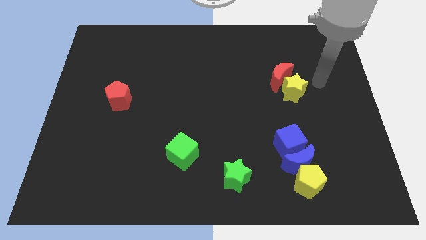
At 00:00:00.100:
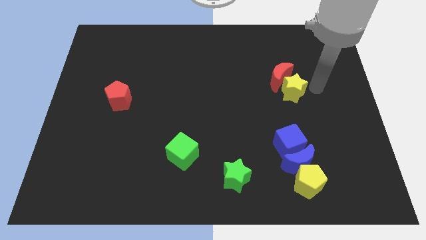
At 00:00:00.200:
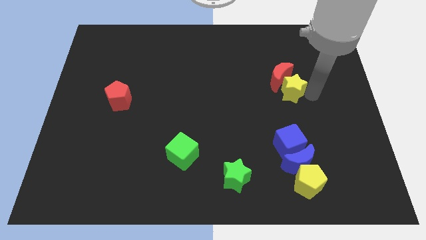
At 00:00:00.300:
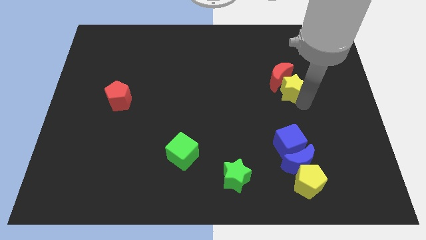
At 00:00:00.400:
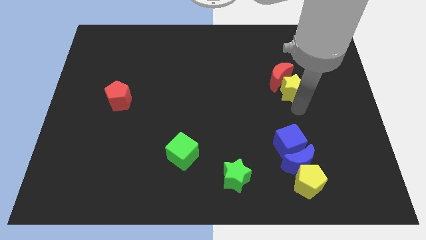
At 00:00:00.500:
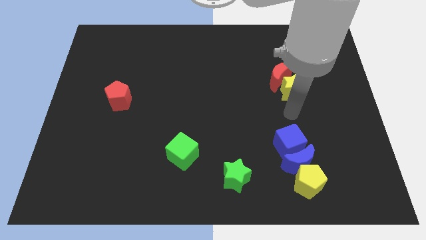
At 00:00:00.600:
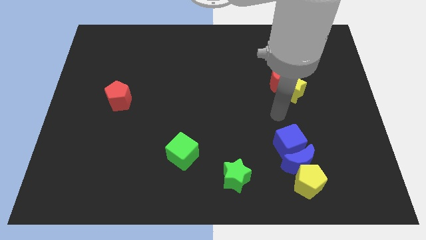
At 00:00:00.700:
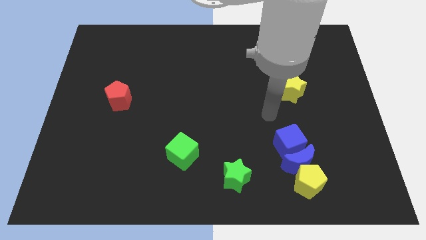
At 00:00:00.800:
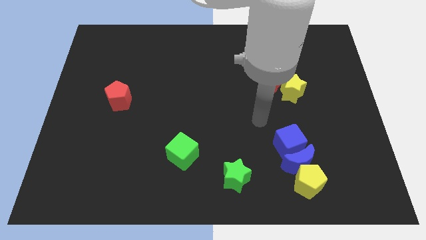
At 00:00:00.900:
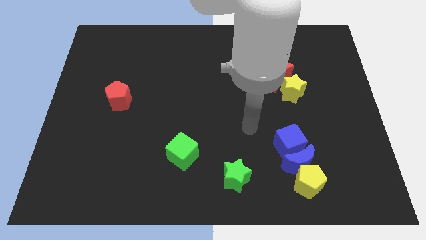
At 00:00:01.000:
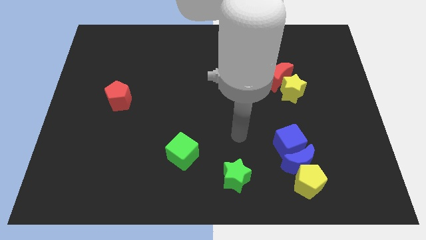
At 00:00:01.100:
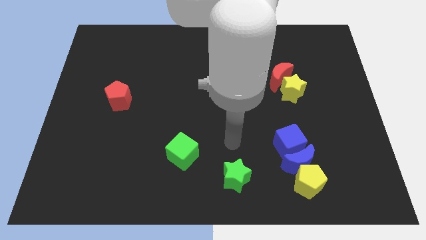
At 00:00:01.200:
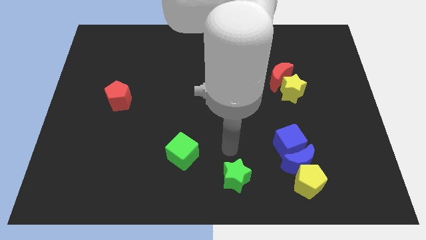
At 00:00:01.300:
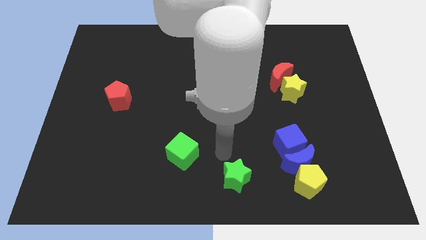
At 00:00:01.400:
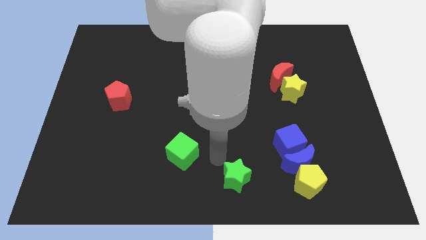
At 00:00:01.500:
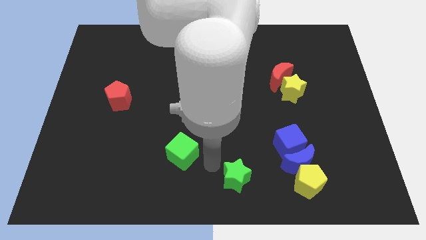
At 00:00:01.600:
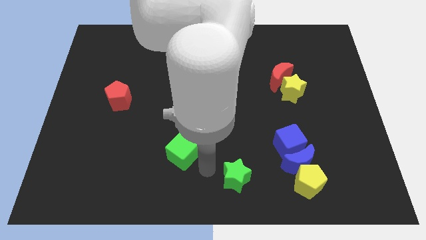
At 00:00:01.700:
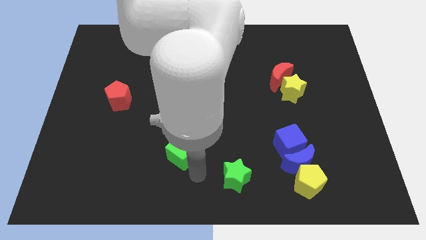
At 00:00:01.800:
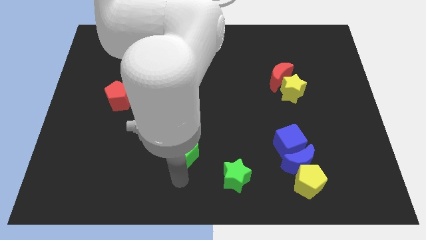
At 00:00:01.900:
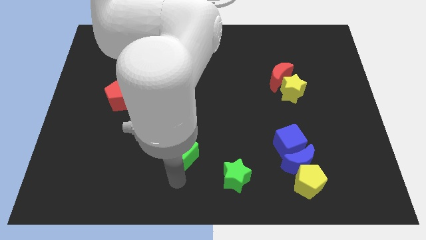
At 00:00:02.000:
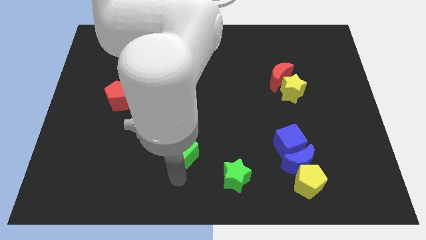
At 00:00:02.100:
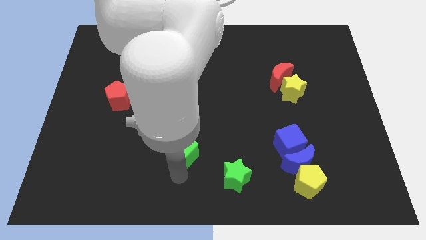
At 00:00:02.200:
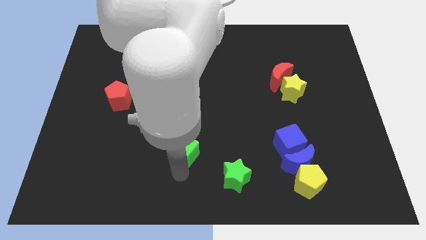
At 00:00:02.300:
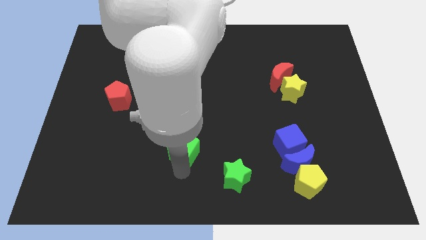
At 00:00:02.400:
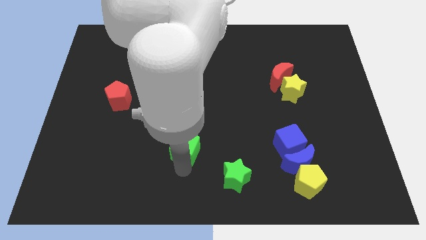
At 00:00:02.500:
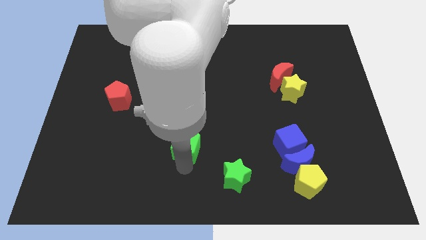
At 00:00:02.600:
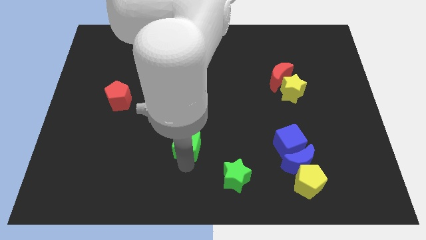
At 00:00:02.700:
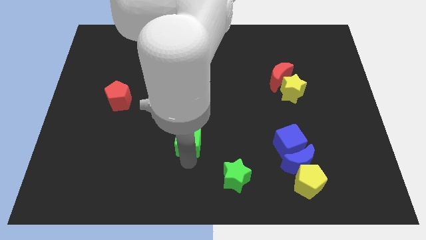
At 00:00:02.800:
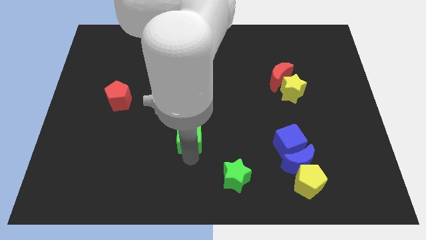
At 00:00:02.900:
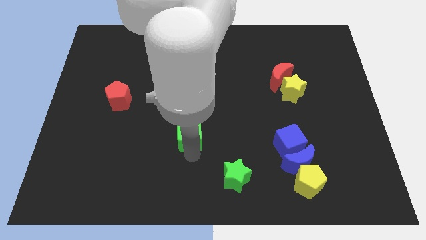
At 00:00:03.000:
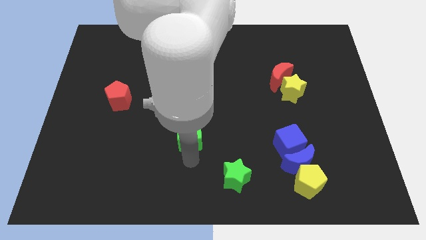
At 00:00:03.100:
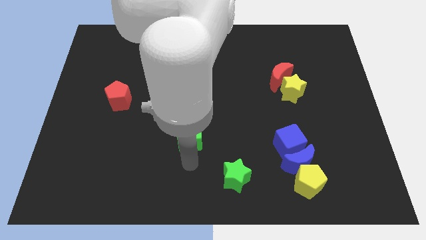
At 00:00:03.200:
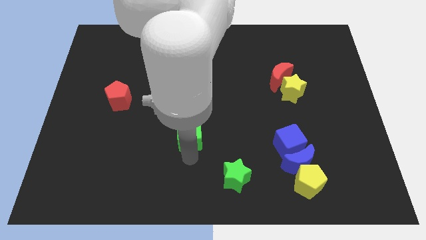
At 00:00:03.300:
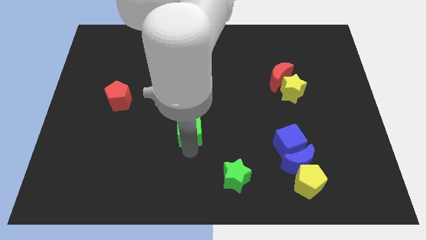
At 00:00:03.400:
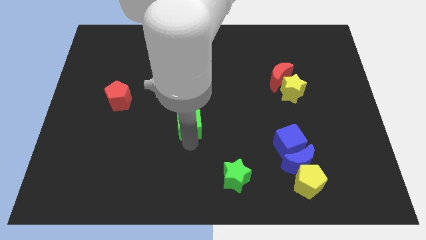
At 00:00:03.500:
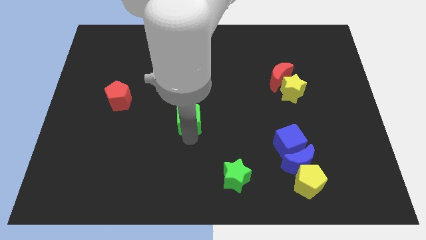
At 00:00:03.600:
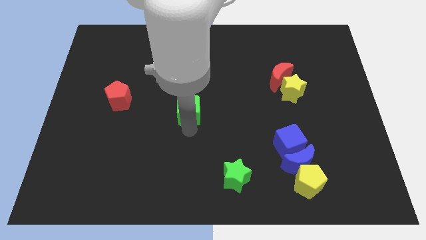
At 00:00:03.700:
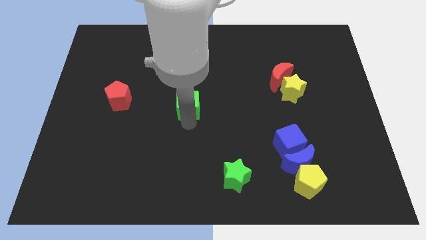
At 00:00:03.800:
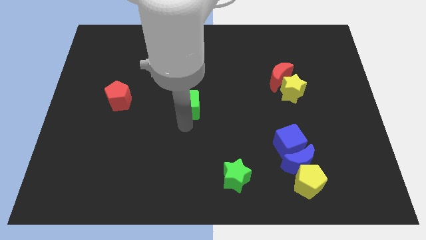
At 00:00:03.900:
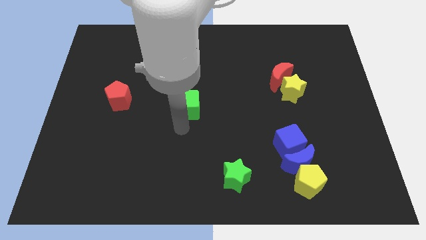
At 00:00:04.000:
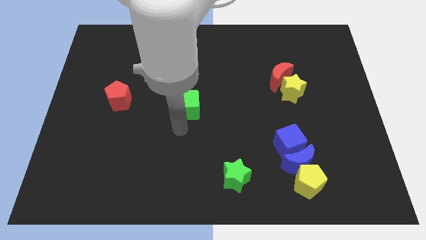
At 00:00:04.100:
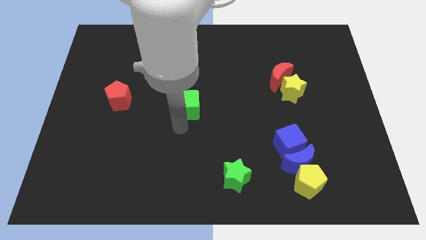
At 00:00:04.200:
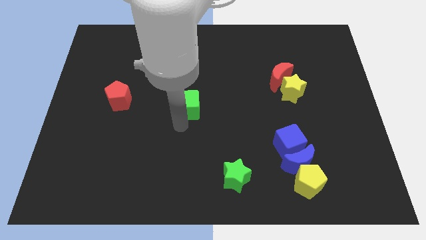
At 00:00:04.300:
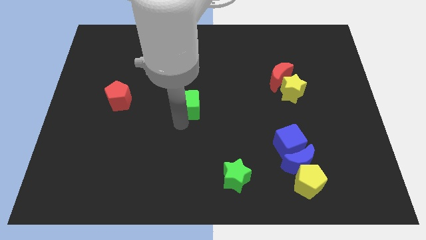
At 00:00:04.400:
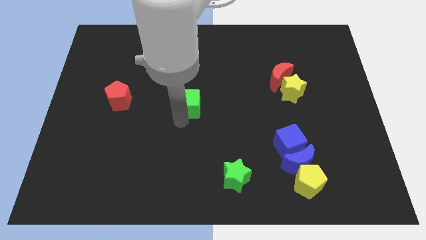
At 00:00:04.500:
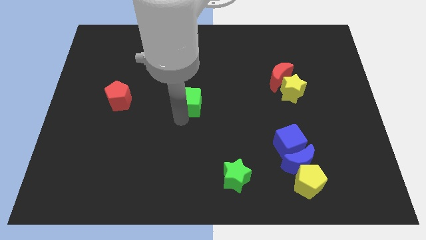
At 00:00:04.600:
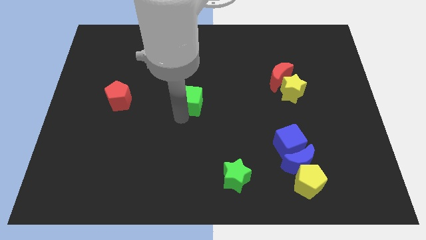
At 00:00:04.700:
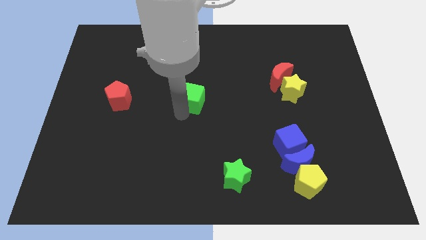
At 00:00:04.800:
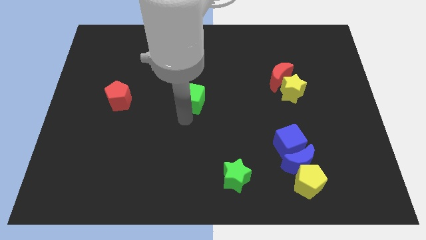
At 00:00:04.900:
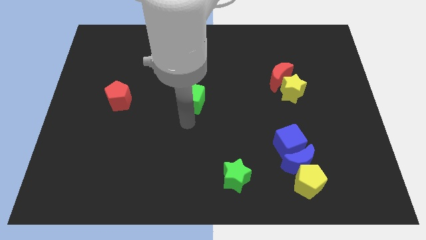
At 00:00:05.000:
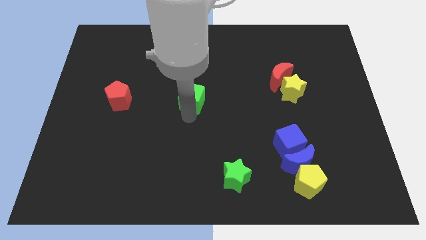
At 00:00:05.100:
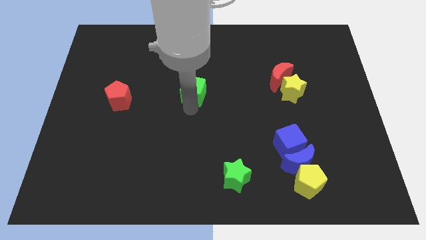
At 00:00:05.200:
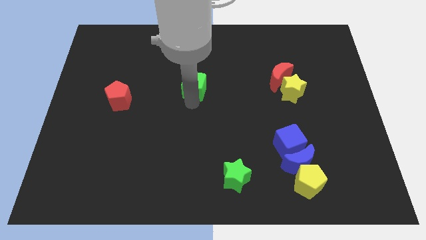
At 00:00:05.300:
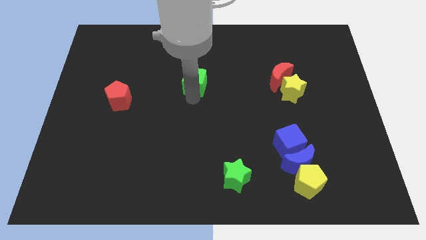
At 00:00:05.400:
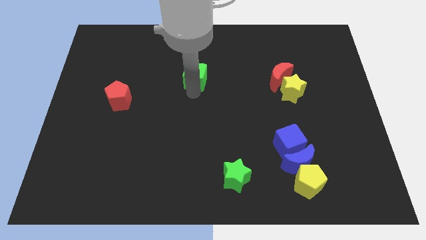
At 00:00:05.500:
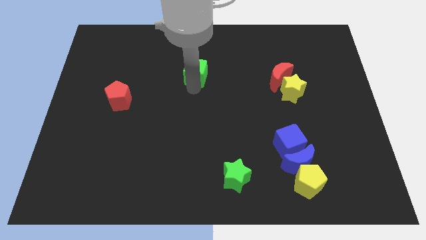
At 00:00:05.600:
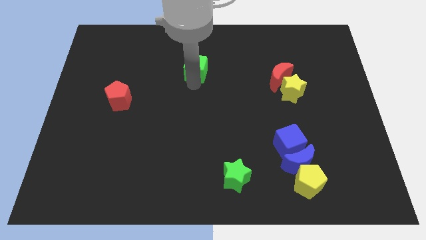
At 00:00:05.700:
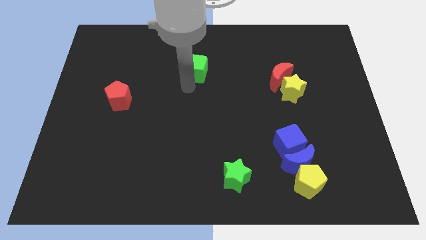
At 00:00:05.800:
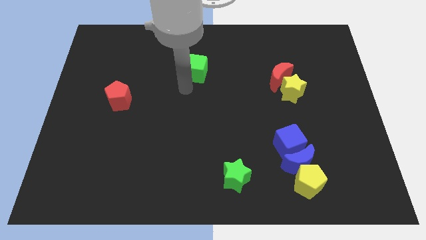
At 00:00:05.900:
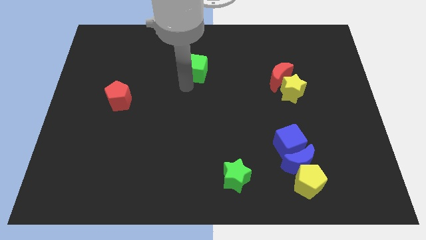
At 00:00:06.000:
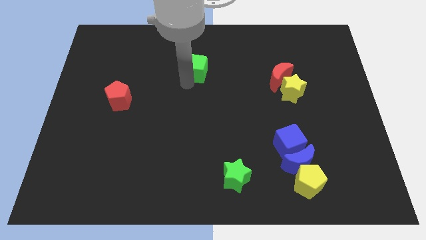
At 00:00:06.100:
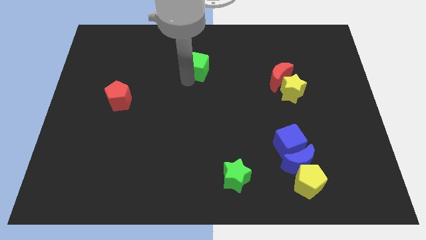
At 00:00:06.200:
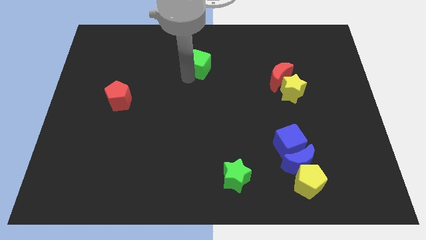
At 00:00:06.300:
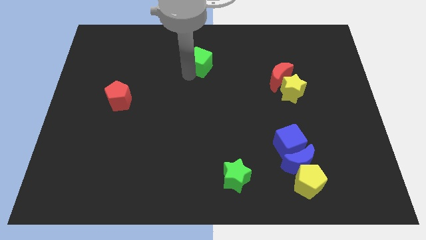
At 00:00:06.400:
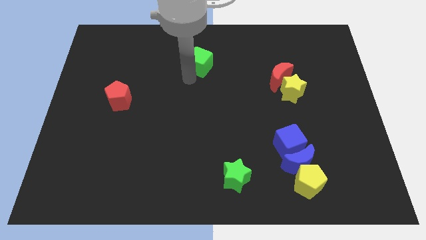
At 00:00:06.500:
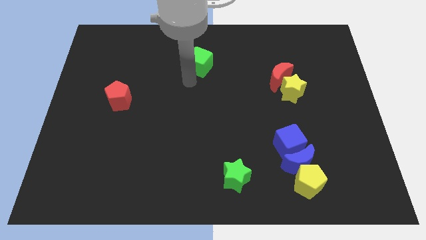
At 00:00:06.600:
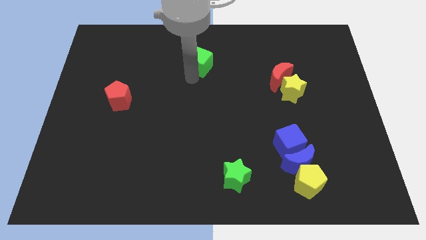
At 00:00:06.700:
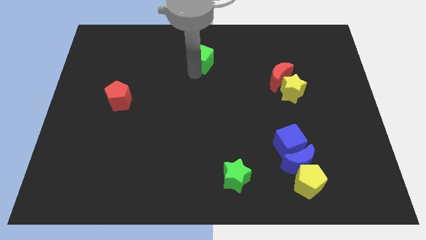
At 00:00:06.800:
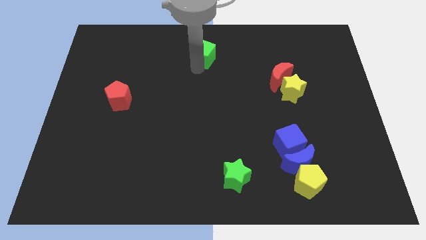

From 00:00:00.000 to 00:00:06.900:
slide the green cube to the top side
